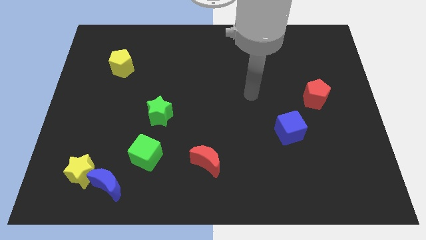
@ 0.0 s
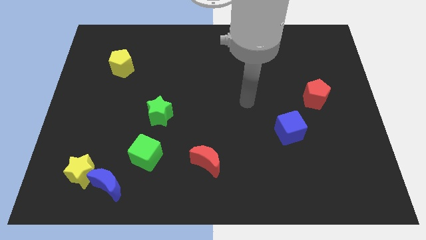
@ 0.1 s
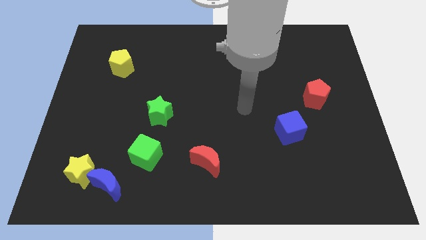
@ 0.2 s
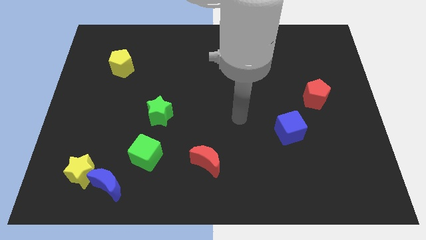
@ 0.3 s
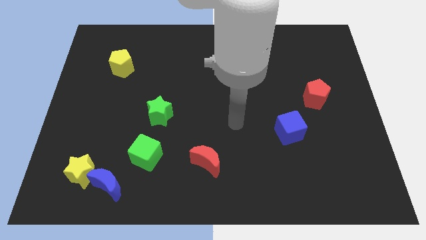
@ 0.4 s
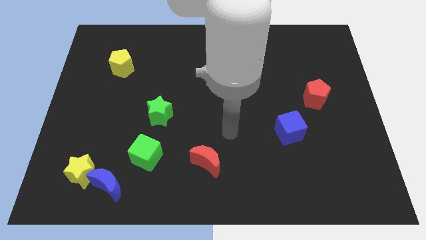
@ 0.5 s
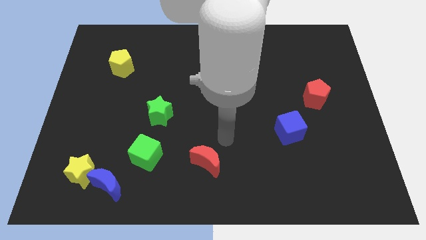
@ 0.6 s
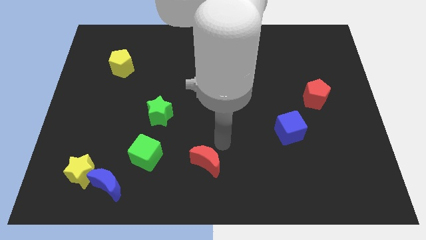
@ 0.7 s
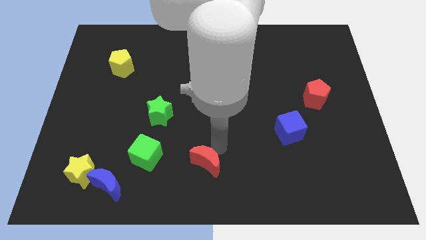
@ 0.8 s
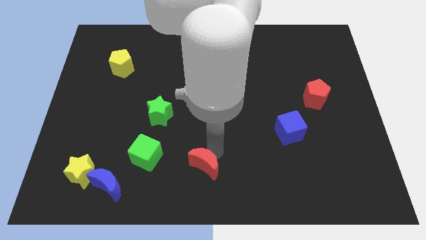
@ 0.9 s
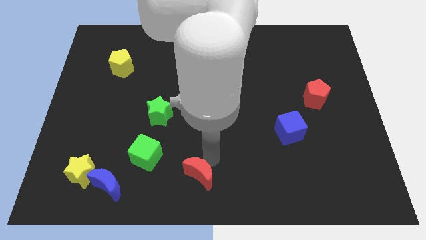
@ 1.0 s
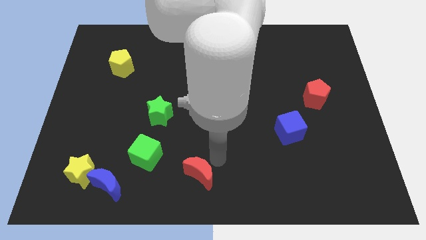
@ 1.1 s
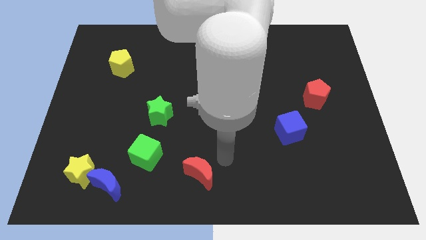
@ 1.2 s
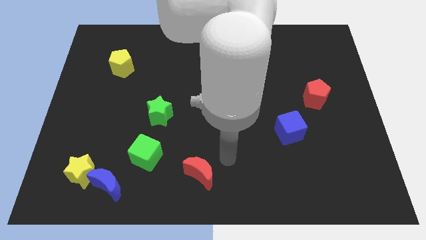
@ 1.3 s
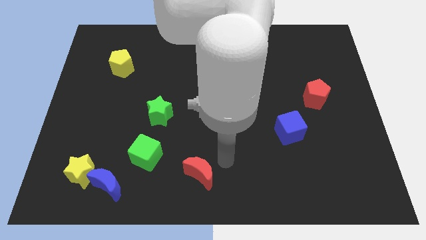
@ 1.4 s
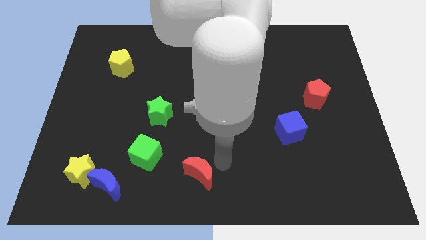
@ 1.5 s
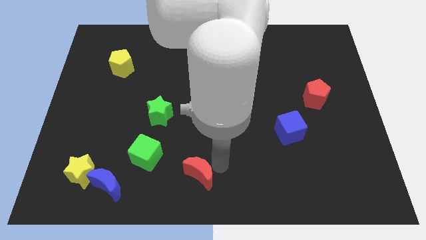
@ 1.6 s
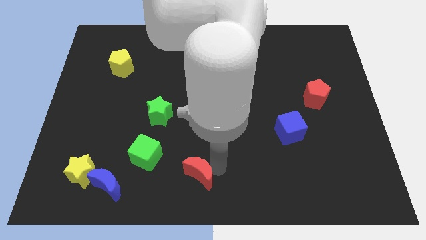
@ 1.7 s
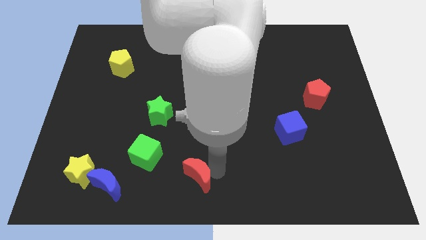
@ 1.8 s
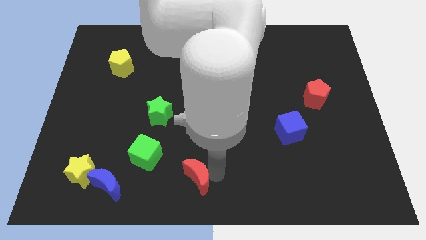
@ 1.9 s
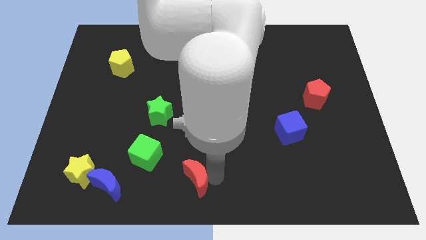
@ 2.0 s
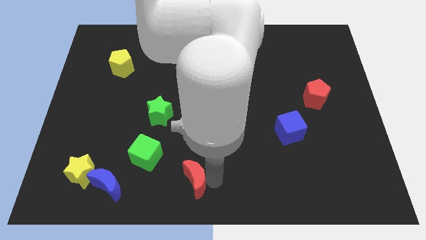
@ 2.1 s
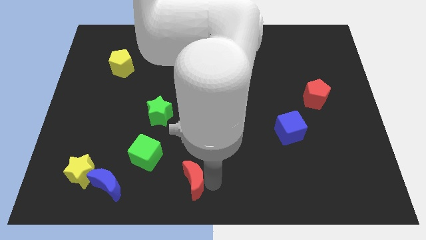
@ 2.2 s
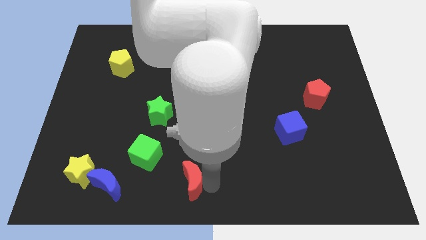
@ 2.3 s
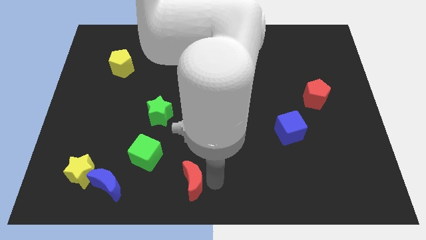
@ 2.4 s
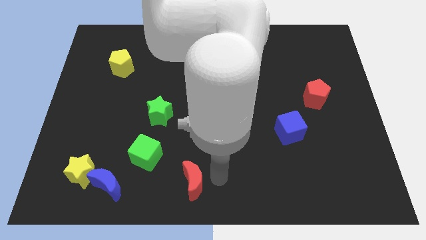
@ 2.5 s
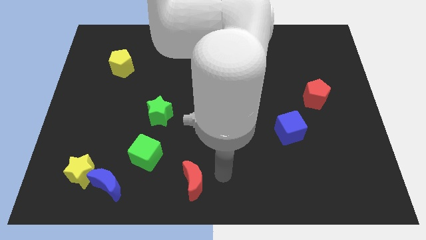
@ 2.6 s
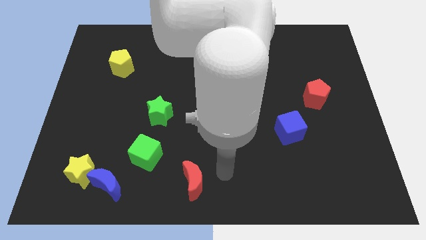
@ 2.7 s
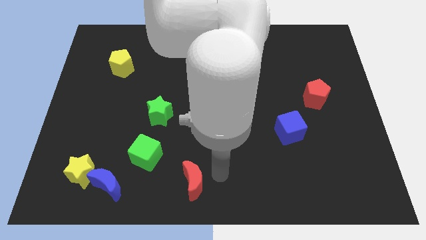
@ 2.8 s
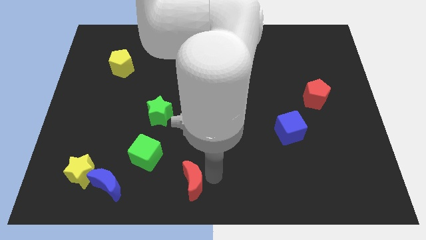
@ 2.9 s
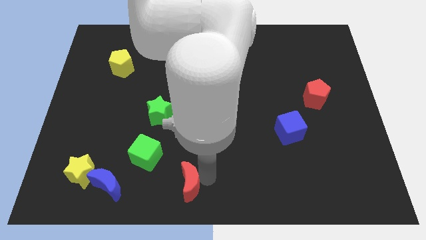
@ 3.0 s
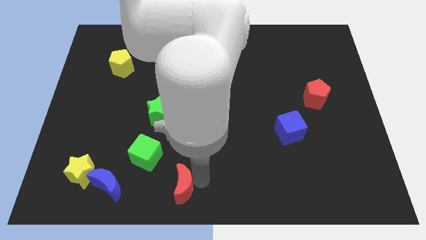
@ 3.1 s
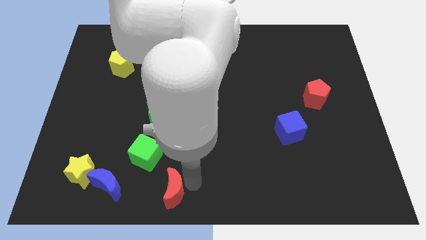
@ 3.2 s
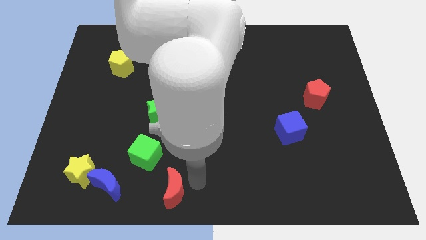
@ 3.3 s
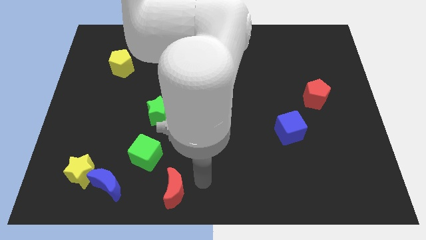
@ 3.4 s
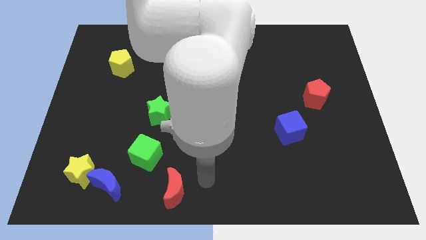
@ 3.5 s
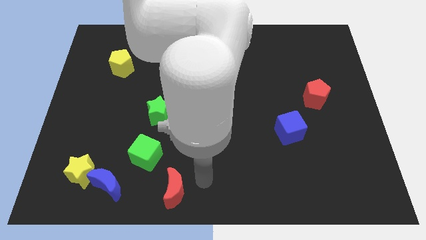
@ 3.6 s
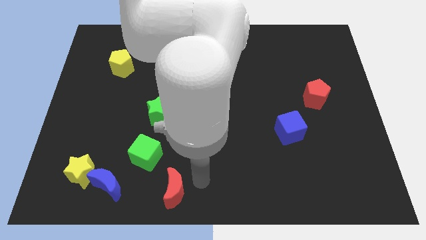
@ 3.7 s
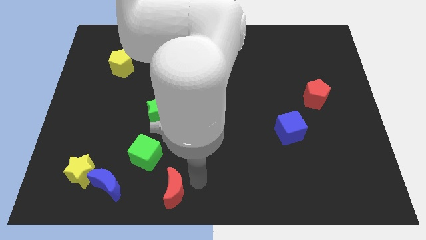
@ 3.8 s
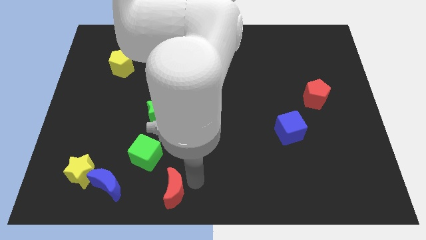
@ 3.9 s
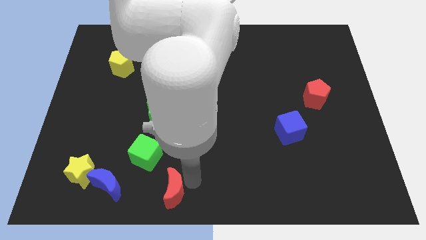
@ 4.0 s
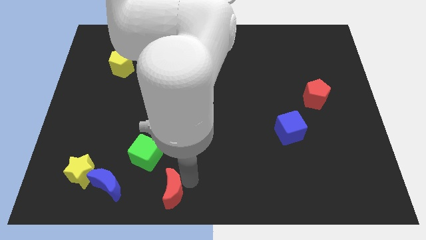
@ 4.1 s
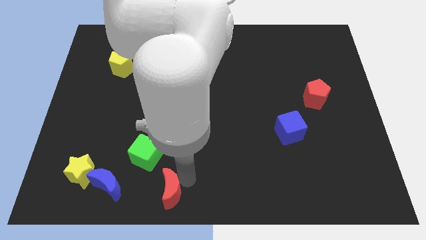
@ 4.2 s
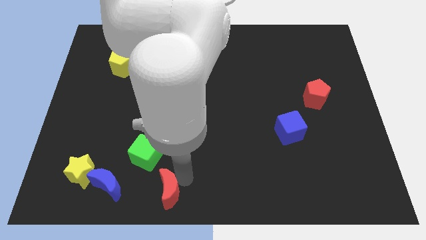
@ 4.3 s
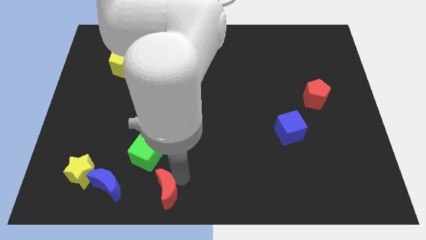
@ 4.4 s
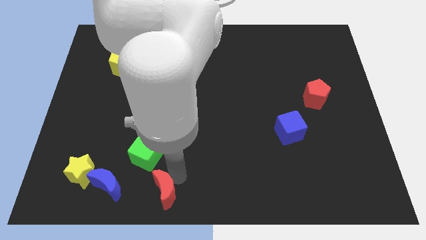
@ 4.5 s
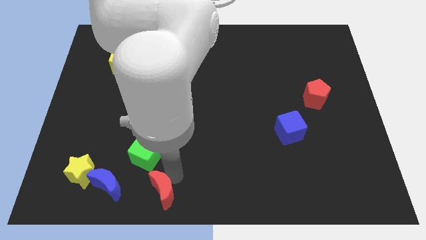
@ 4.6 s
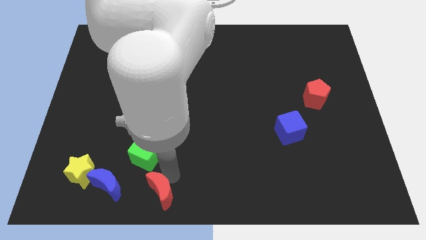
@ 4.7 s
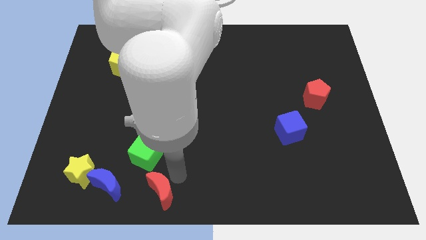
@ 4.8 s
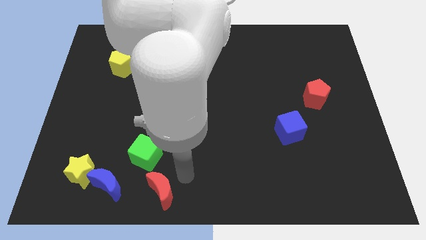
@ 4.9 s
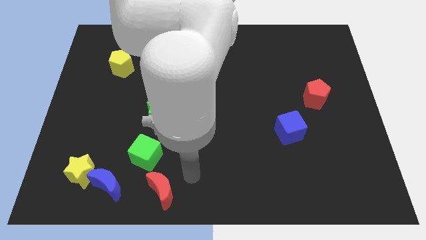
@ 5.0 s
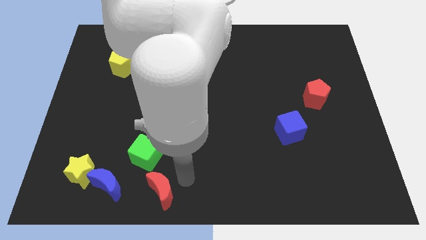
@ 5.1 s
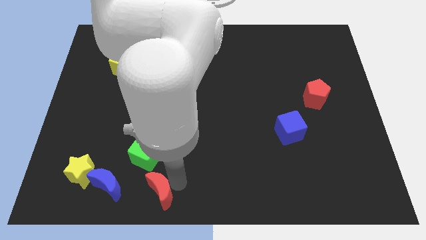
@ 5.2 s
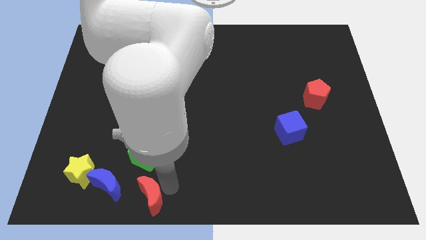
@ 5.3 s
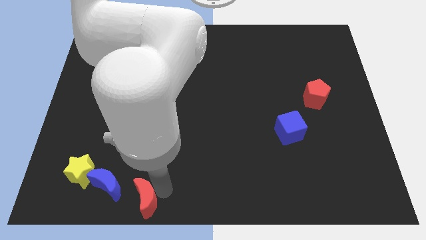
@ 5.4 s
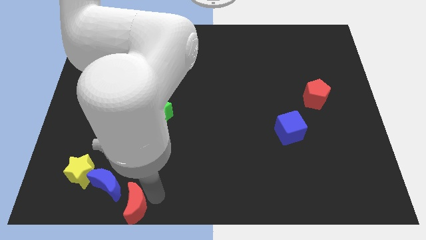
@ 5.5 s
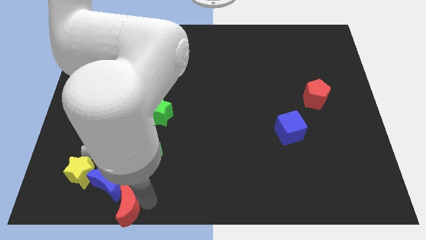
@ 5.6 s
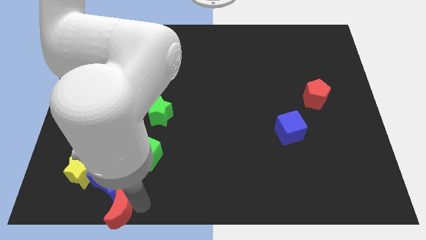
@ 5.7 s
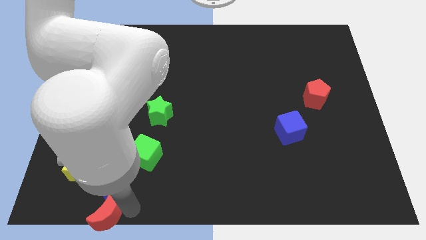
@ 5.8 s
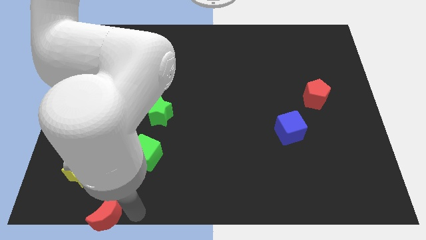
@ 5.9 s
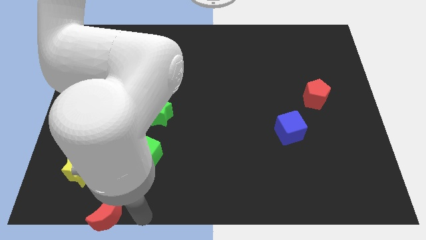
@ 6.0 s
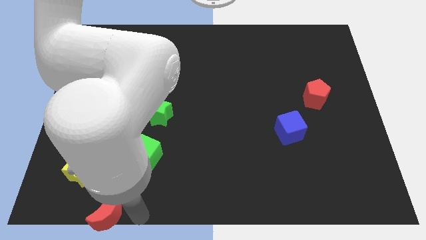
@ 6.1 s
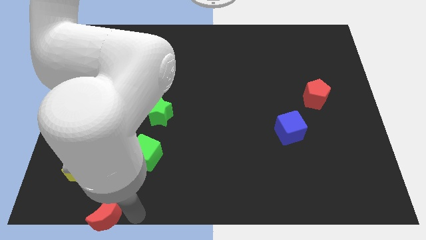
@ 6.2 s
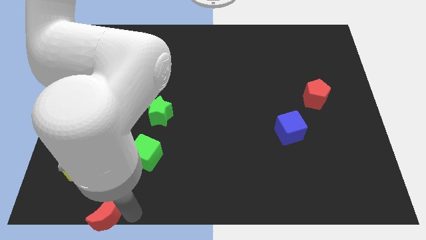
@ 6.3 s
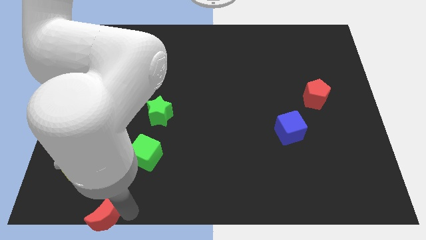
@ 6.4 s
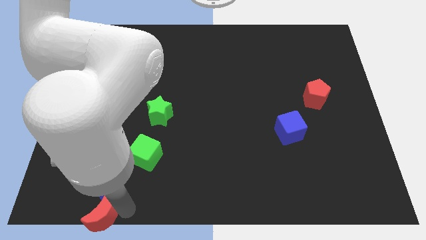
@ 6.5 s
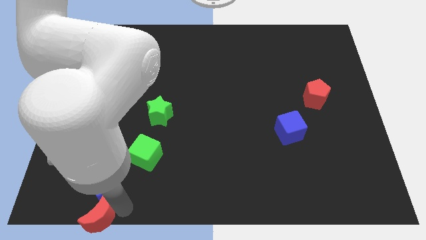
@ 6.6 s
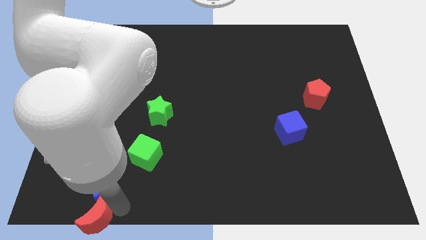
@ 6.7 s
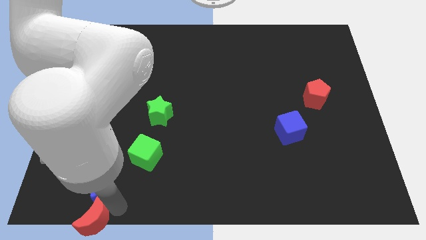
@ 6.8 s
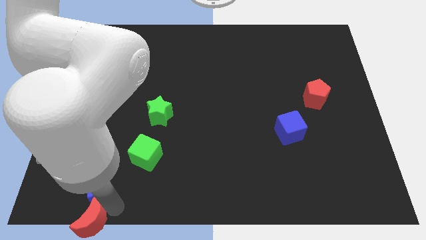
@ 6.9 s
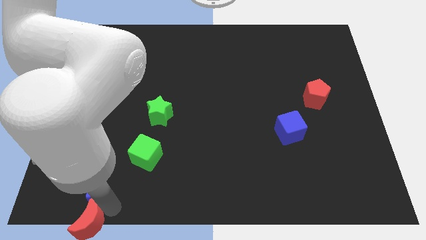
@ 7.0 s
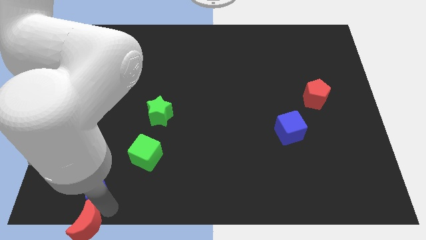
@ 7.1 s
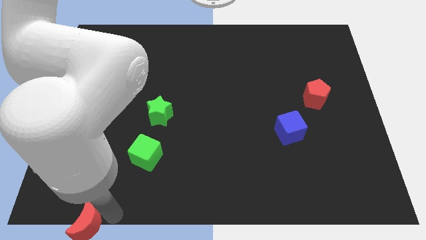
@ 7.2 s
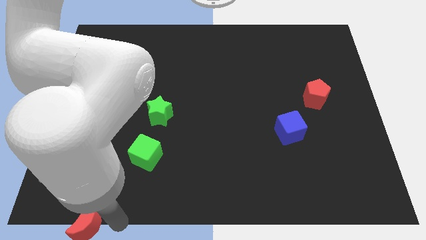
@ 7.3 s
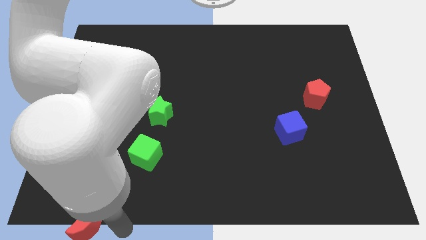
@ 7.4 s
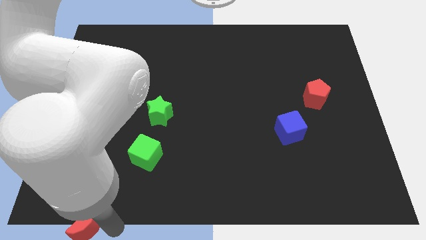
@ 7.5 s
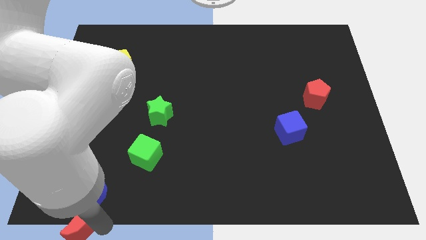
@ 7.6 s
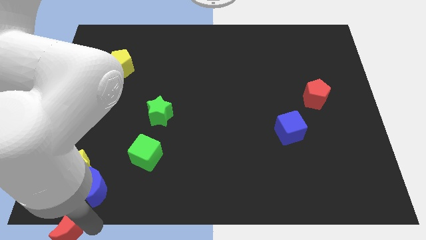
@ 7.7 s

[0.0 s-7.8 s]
push the red moon to the bottom left

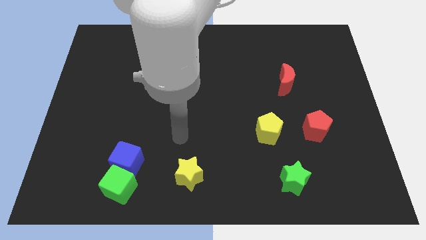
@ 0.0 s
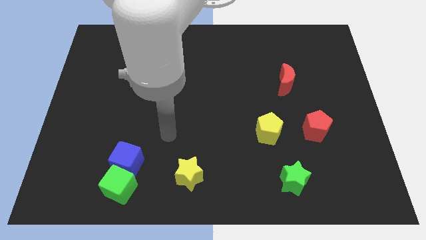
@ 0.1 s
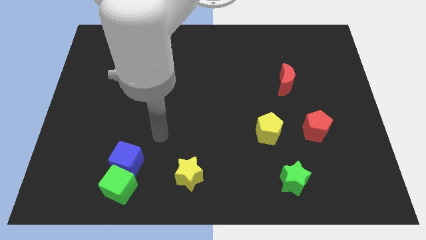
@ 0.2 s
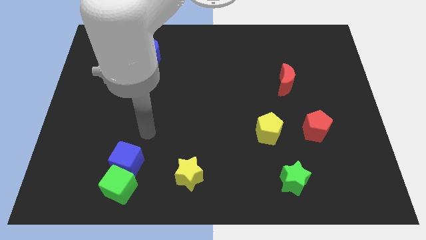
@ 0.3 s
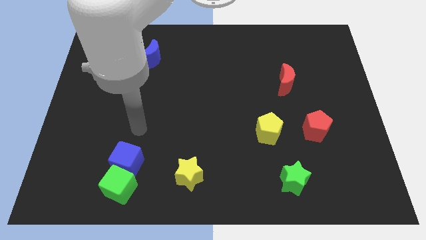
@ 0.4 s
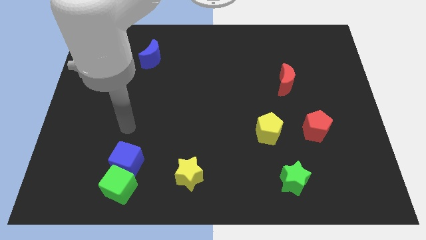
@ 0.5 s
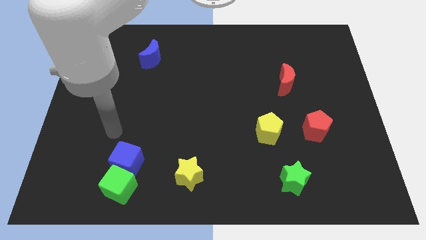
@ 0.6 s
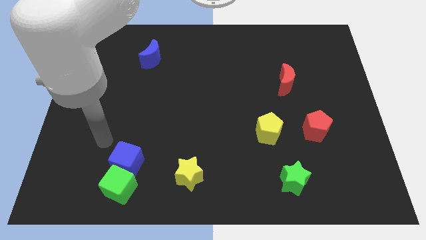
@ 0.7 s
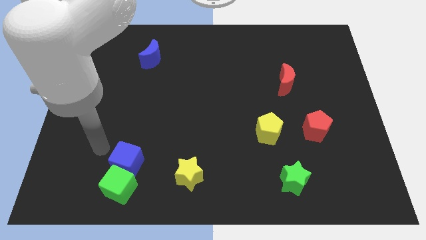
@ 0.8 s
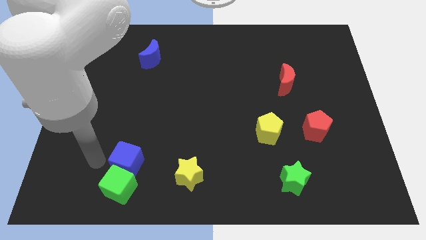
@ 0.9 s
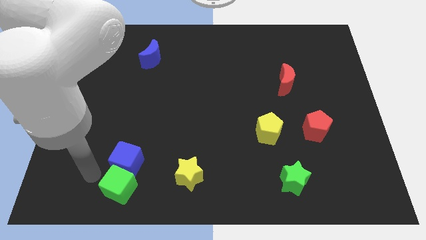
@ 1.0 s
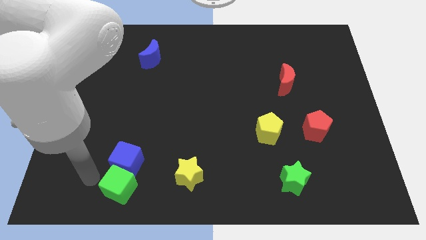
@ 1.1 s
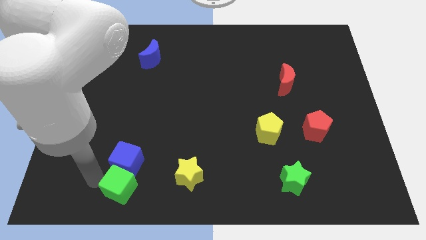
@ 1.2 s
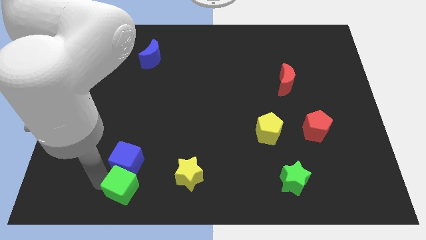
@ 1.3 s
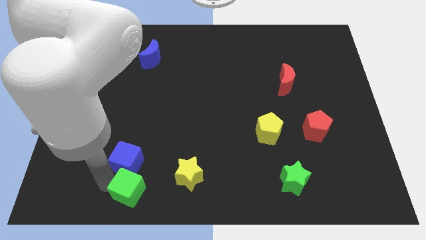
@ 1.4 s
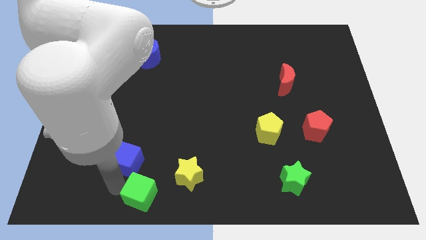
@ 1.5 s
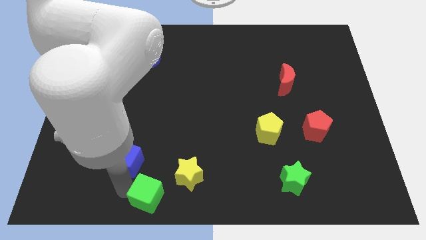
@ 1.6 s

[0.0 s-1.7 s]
slide the green cube to the bottom side
